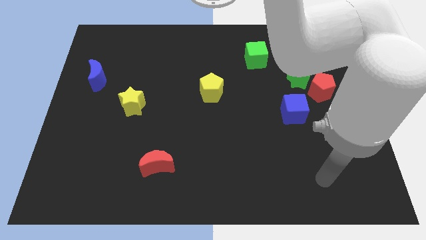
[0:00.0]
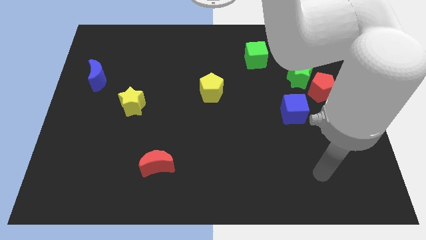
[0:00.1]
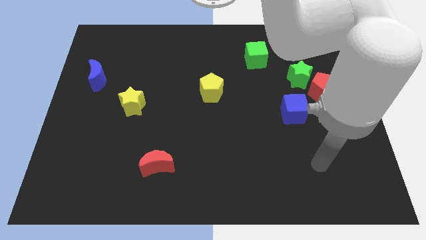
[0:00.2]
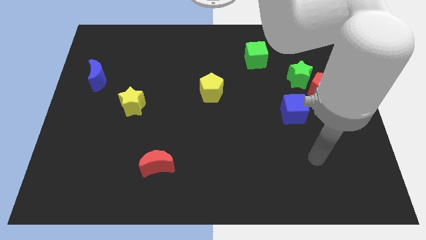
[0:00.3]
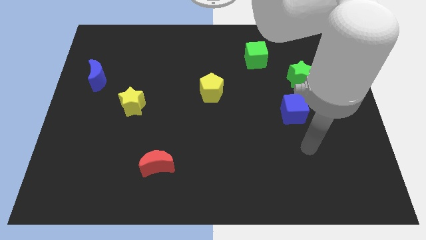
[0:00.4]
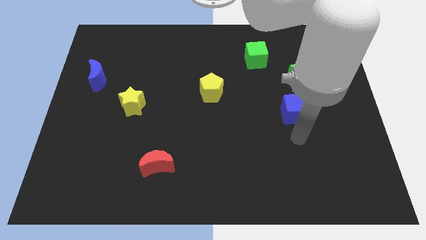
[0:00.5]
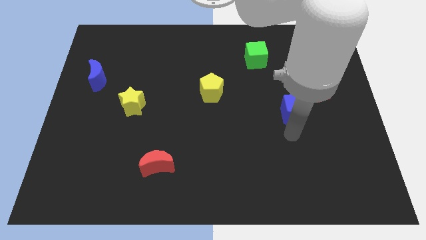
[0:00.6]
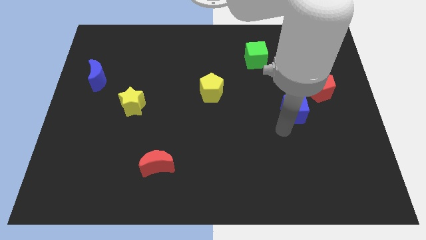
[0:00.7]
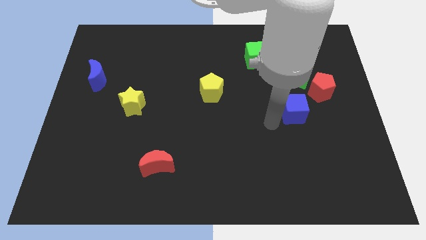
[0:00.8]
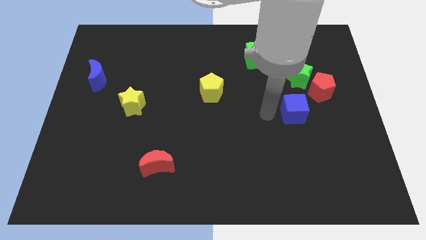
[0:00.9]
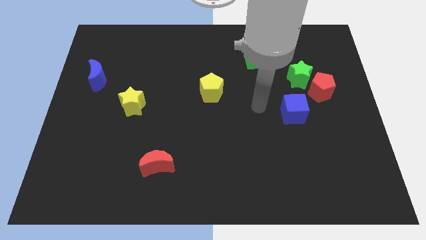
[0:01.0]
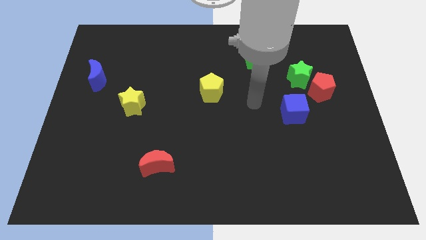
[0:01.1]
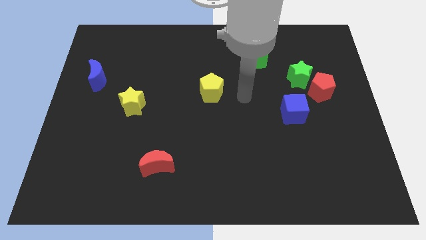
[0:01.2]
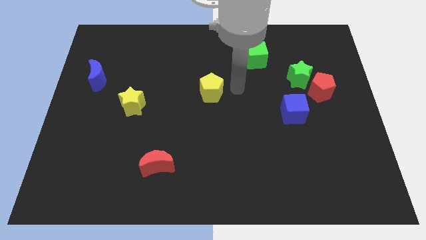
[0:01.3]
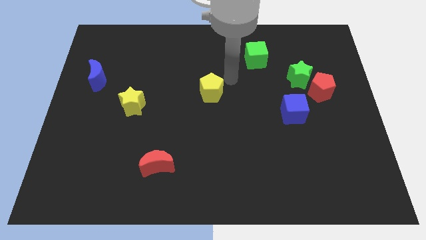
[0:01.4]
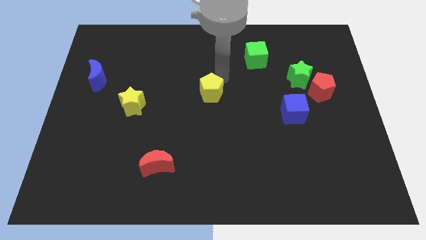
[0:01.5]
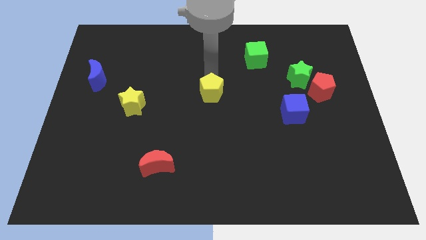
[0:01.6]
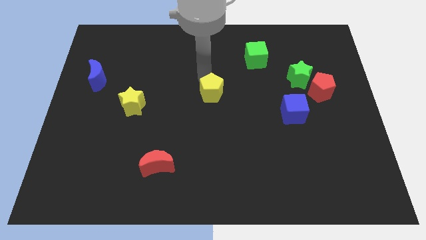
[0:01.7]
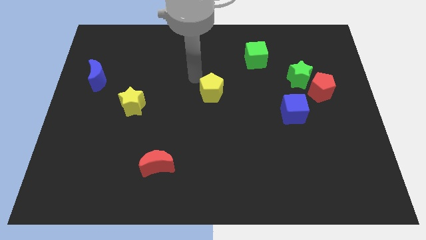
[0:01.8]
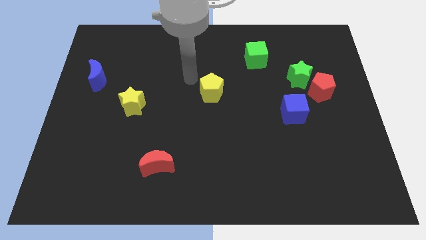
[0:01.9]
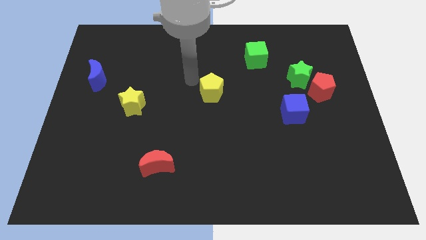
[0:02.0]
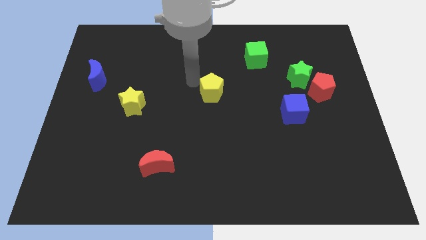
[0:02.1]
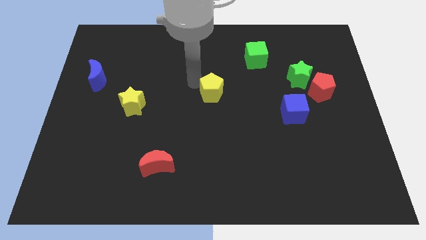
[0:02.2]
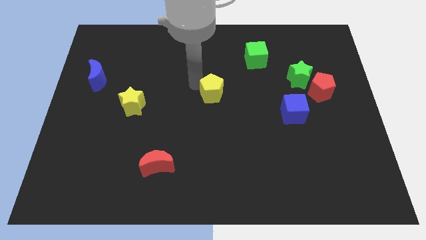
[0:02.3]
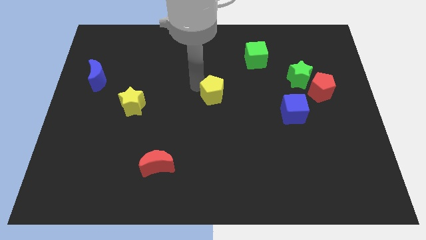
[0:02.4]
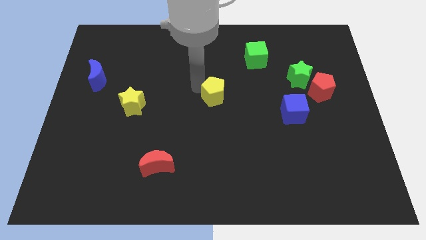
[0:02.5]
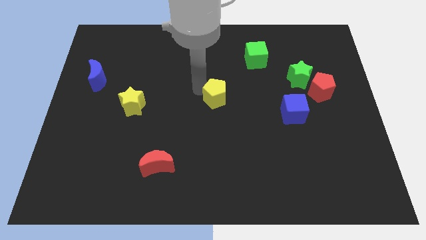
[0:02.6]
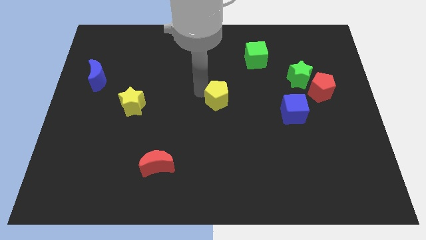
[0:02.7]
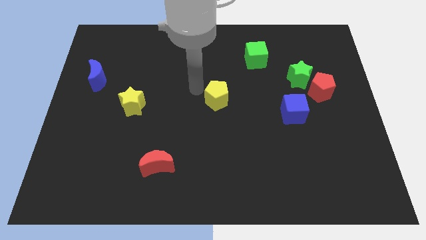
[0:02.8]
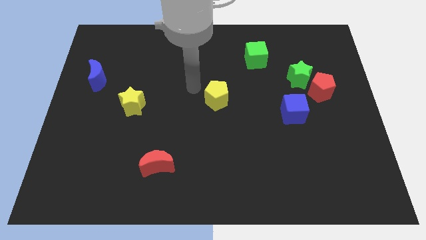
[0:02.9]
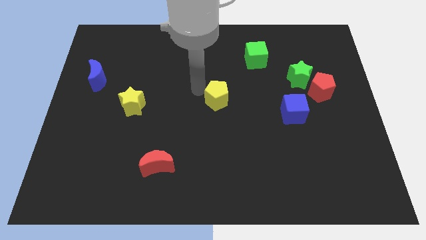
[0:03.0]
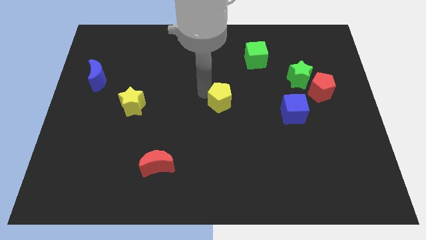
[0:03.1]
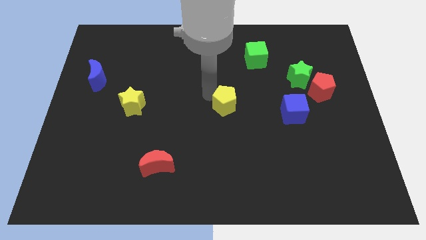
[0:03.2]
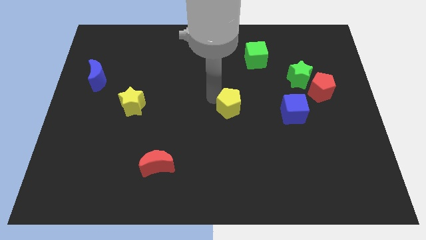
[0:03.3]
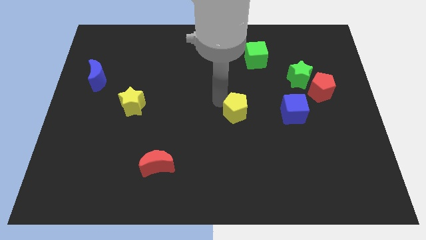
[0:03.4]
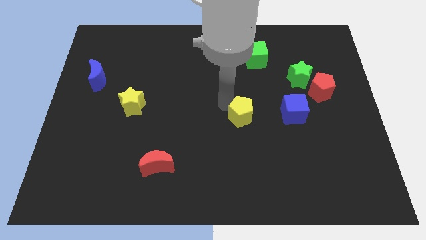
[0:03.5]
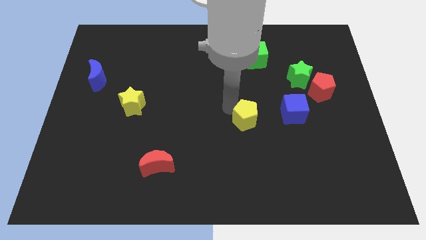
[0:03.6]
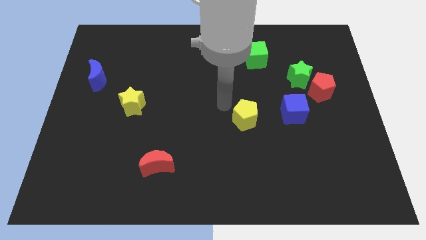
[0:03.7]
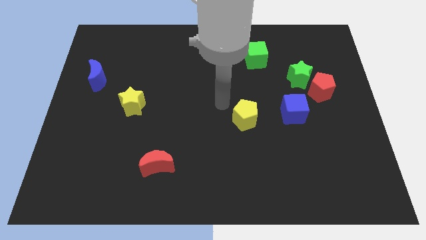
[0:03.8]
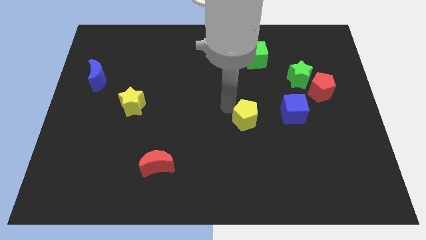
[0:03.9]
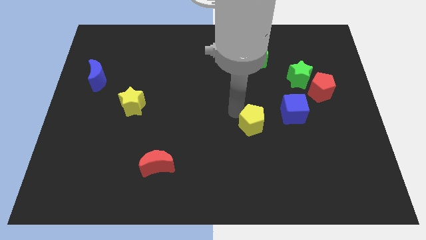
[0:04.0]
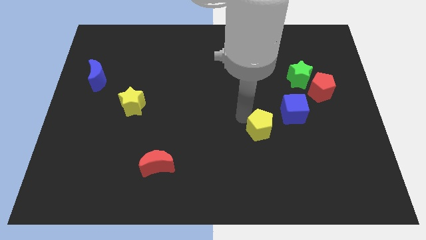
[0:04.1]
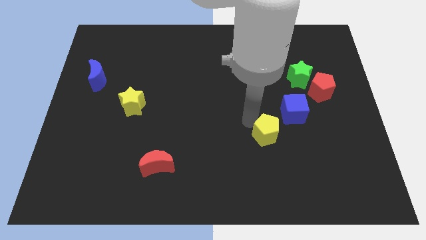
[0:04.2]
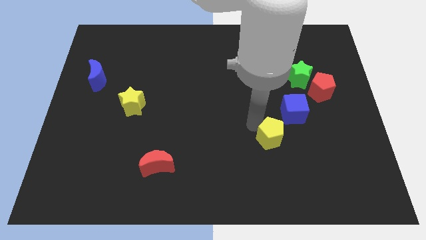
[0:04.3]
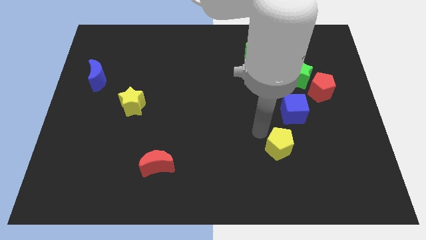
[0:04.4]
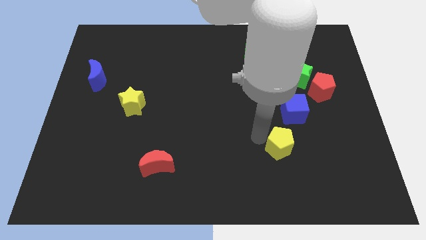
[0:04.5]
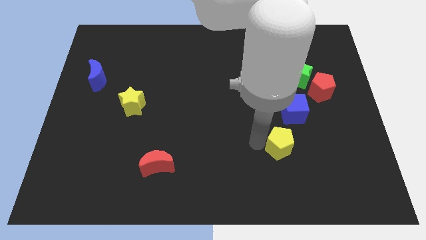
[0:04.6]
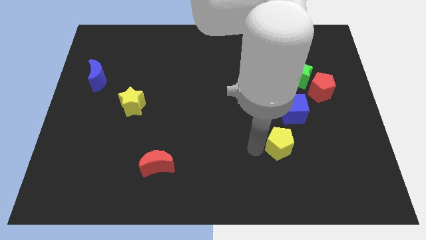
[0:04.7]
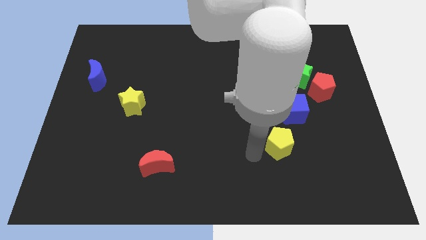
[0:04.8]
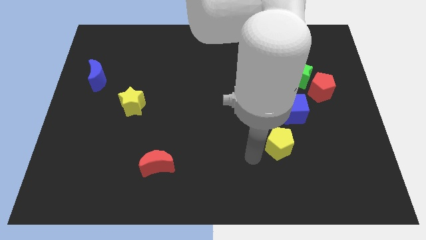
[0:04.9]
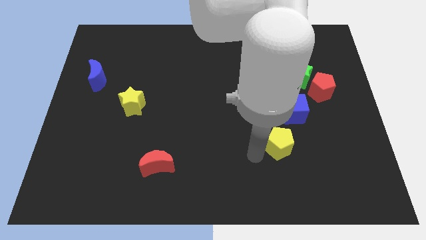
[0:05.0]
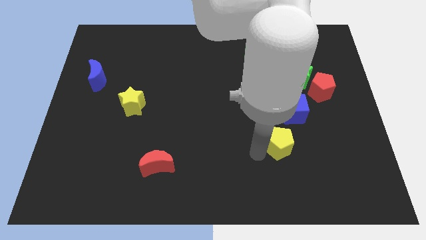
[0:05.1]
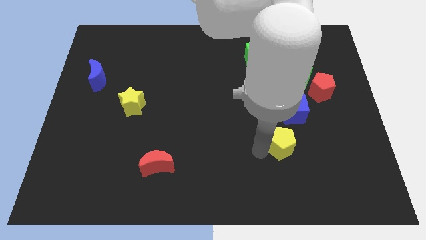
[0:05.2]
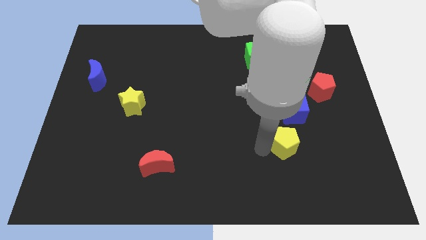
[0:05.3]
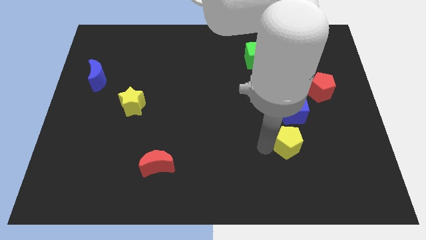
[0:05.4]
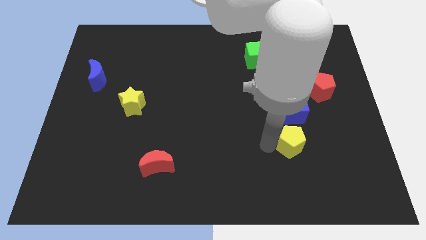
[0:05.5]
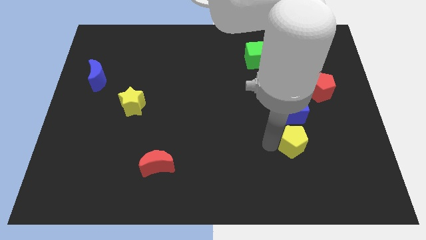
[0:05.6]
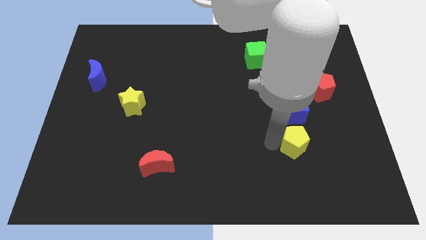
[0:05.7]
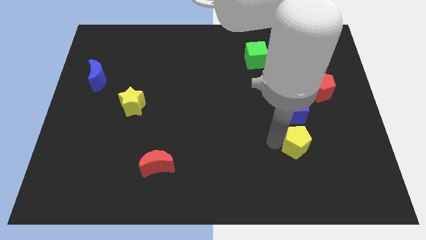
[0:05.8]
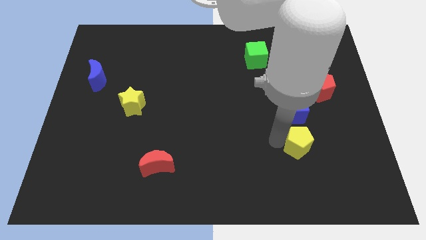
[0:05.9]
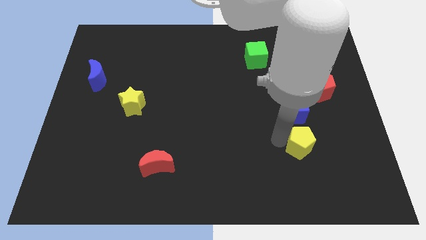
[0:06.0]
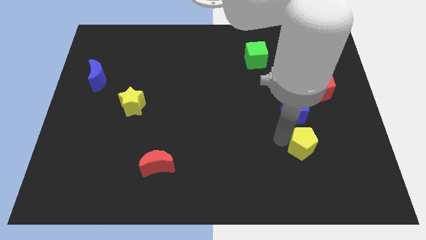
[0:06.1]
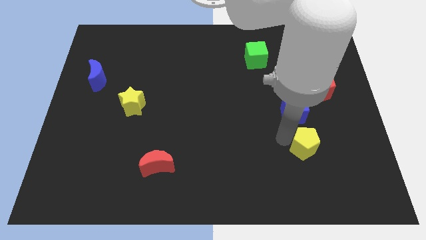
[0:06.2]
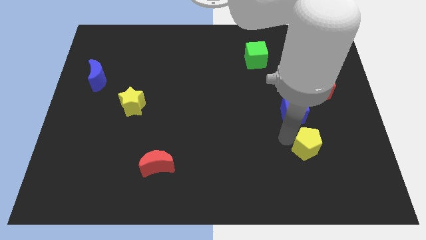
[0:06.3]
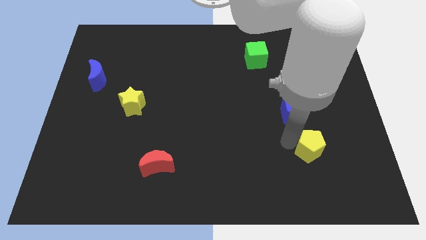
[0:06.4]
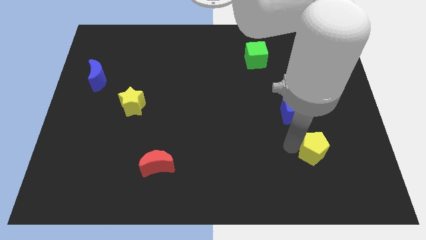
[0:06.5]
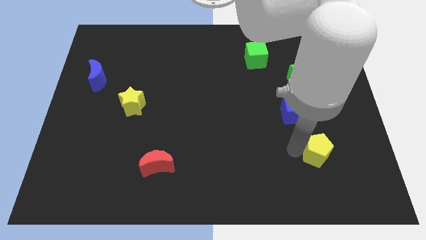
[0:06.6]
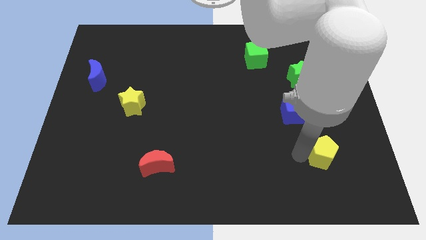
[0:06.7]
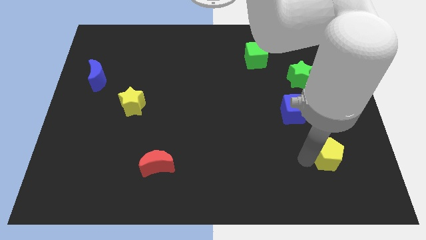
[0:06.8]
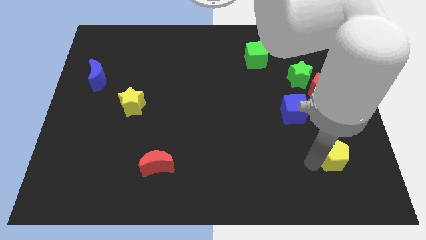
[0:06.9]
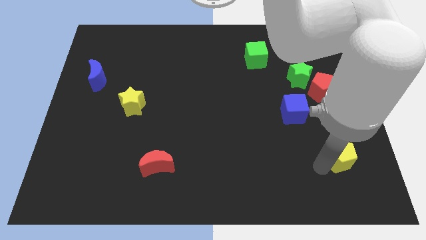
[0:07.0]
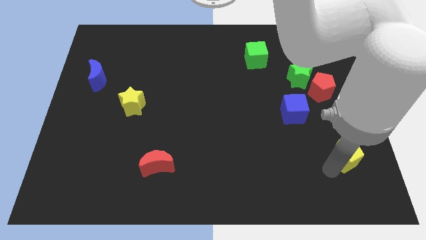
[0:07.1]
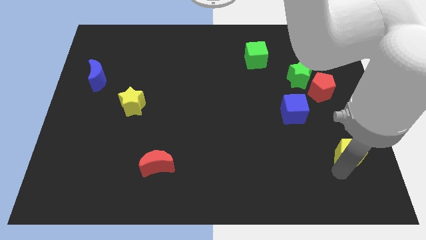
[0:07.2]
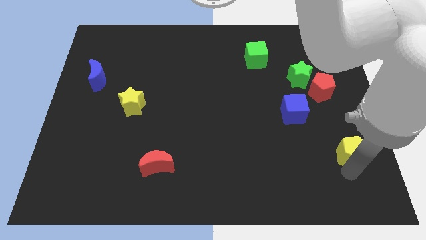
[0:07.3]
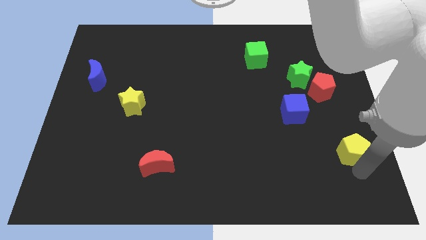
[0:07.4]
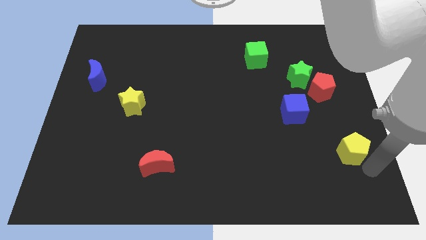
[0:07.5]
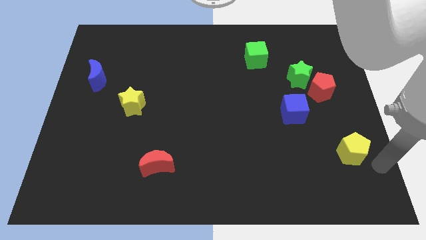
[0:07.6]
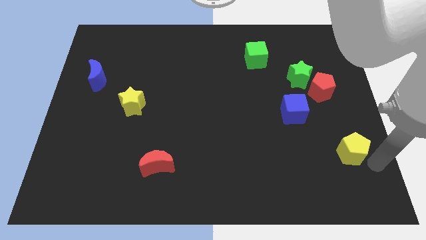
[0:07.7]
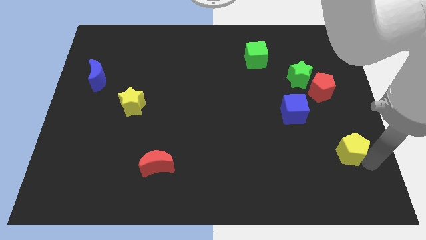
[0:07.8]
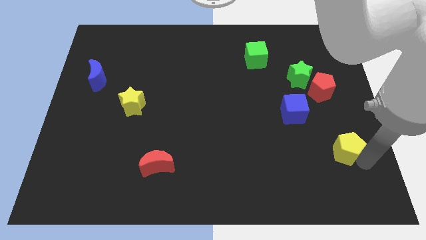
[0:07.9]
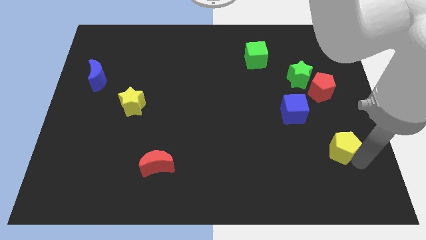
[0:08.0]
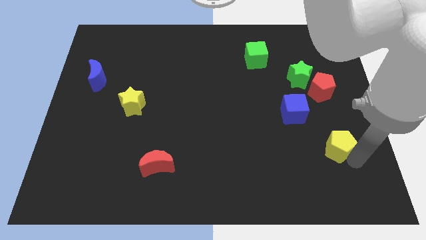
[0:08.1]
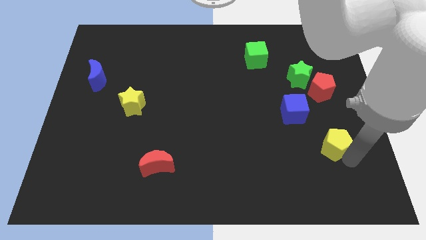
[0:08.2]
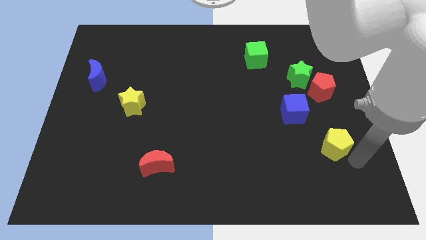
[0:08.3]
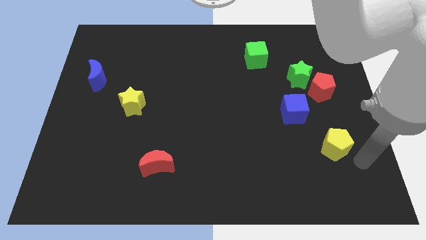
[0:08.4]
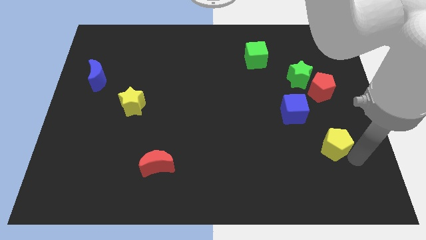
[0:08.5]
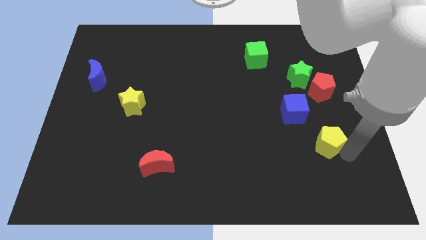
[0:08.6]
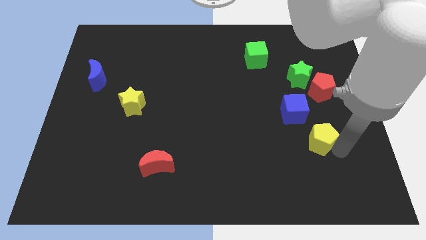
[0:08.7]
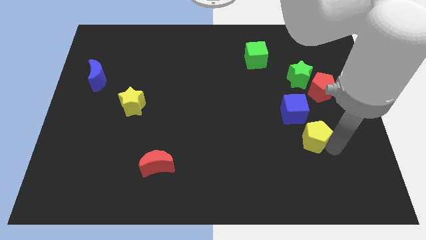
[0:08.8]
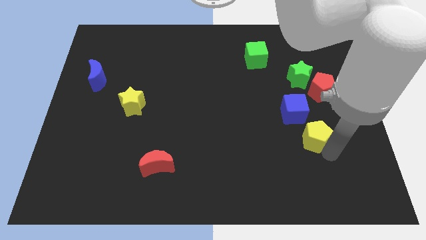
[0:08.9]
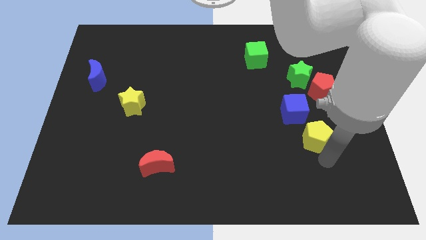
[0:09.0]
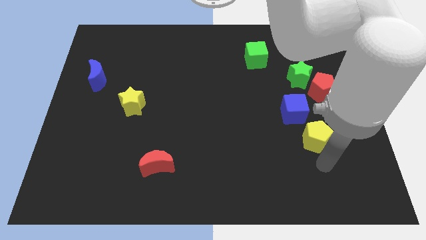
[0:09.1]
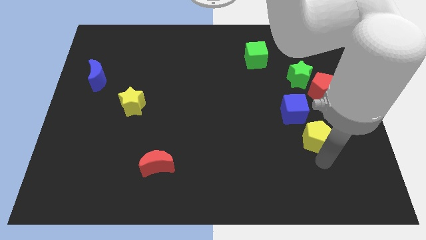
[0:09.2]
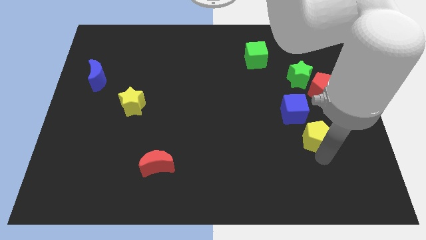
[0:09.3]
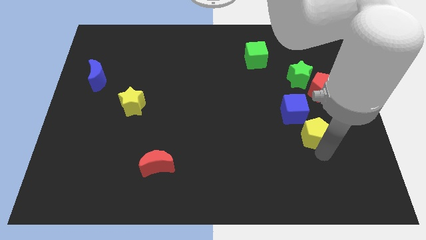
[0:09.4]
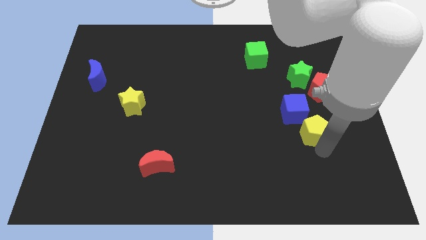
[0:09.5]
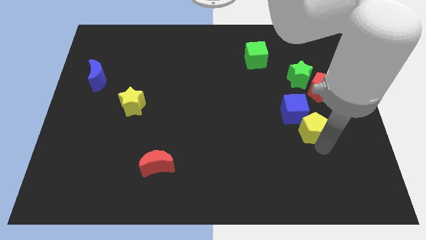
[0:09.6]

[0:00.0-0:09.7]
slide the yellow pentagon to the bottom of the green star
